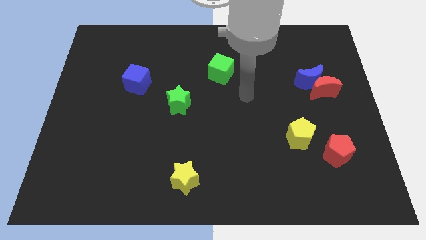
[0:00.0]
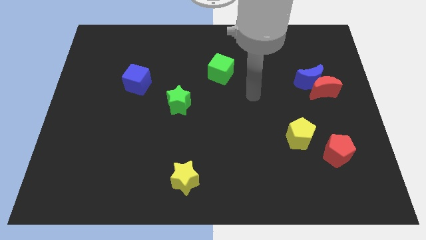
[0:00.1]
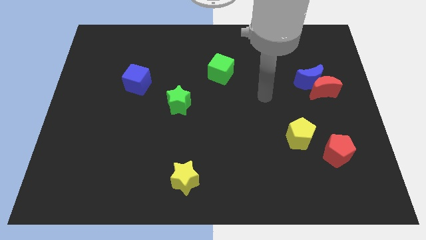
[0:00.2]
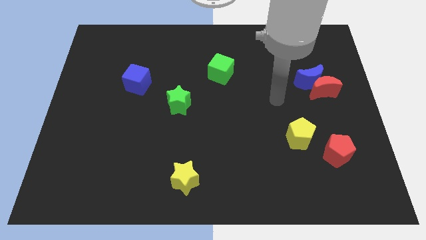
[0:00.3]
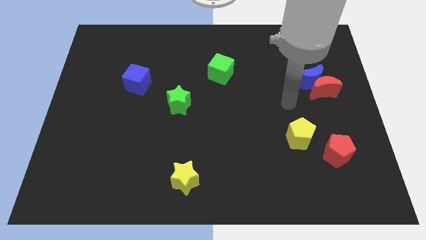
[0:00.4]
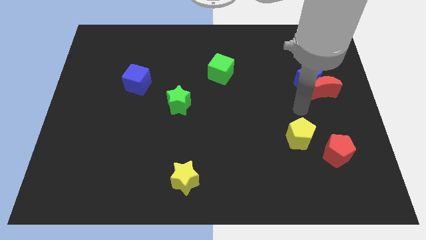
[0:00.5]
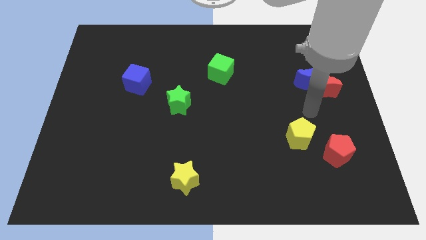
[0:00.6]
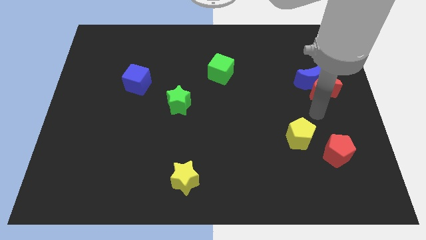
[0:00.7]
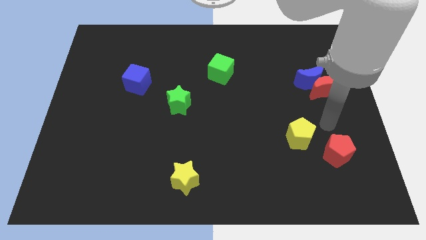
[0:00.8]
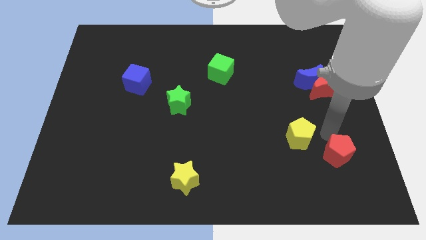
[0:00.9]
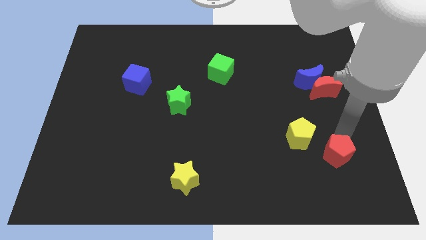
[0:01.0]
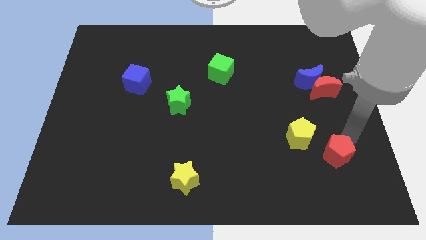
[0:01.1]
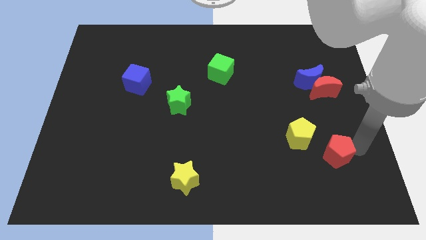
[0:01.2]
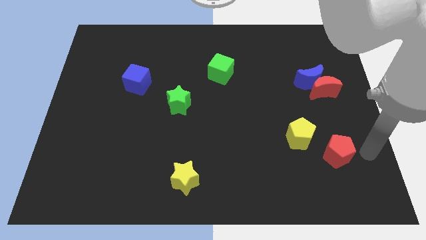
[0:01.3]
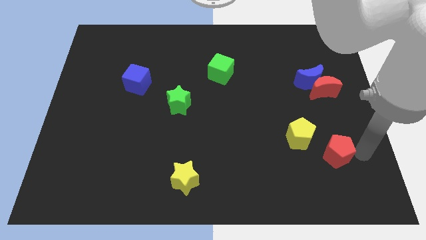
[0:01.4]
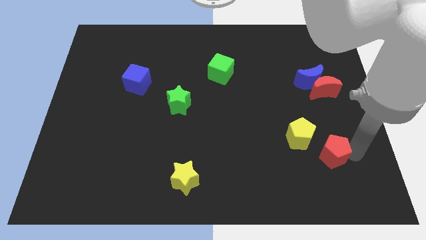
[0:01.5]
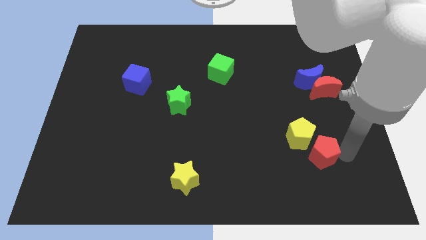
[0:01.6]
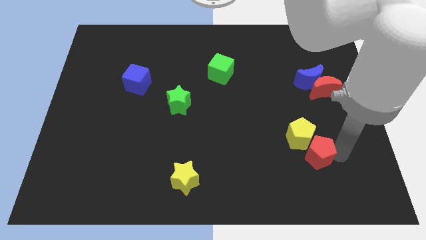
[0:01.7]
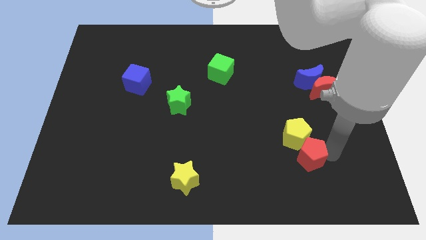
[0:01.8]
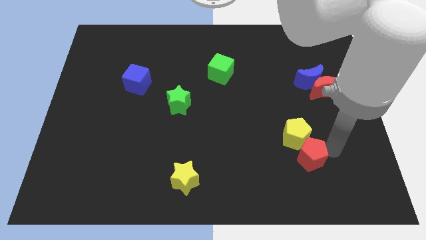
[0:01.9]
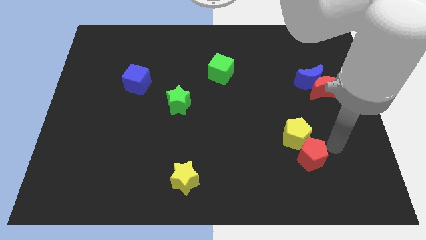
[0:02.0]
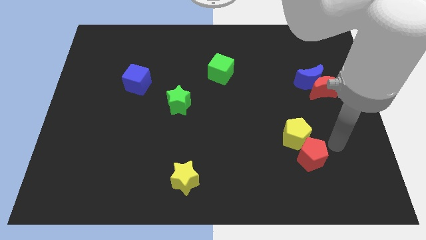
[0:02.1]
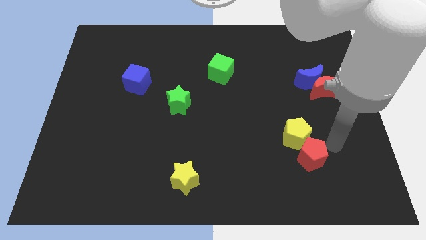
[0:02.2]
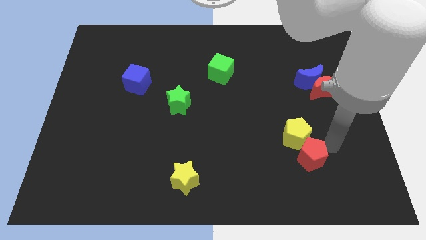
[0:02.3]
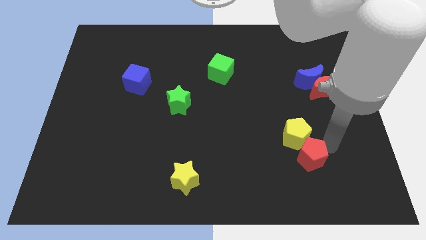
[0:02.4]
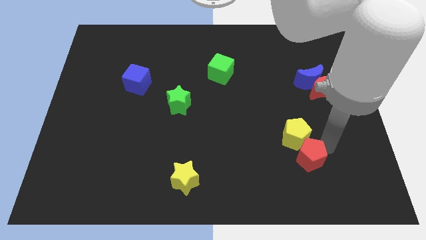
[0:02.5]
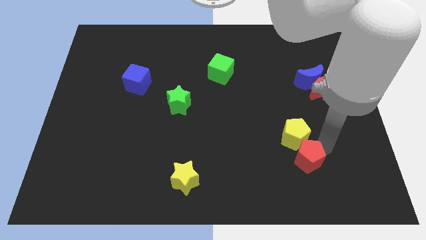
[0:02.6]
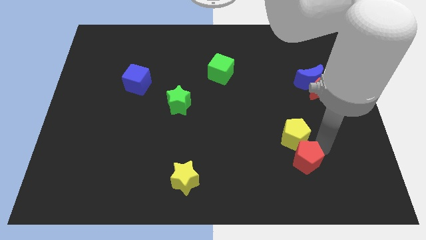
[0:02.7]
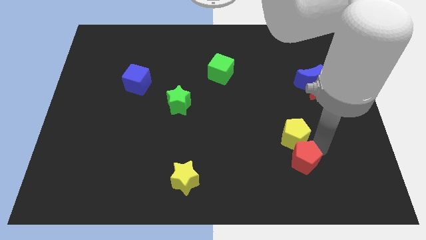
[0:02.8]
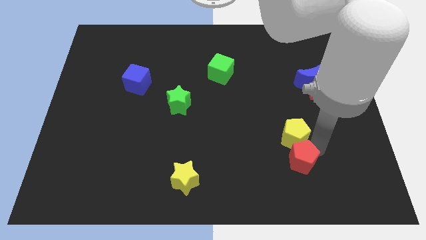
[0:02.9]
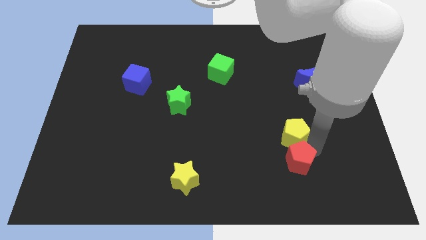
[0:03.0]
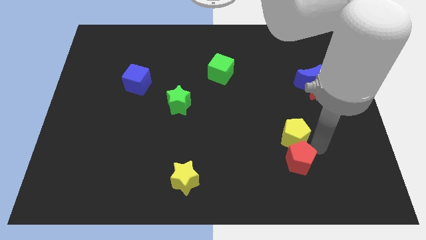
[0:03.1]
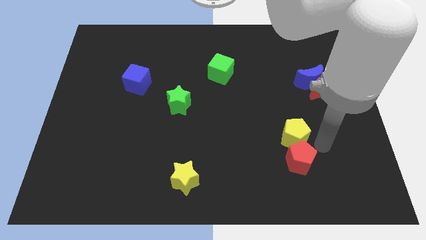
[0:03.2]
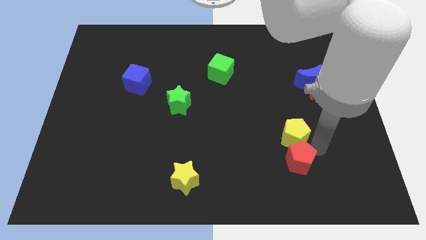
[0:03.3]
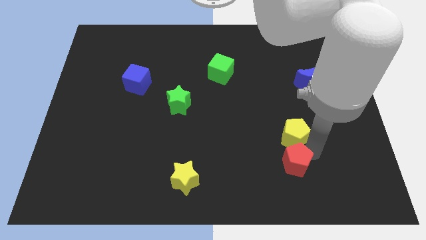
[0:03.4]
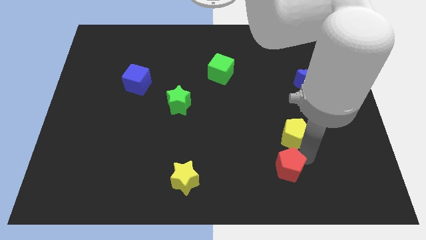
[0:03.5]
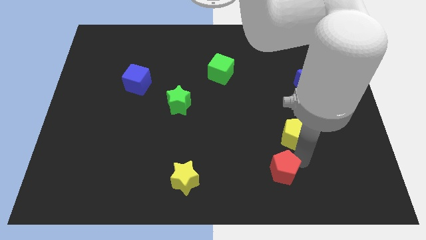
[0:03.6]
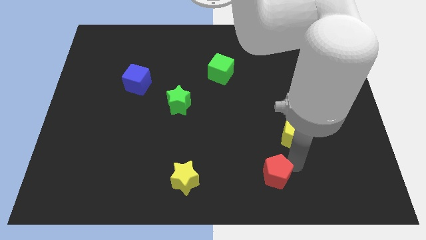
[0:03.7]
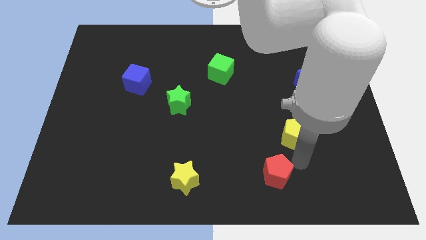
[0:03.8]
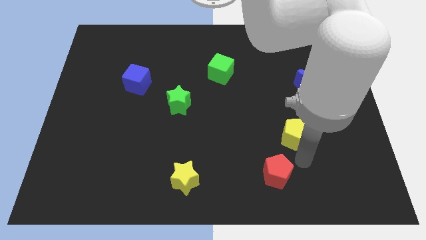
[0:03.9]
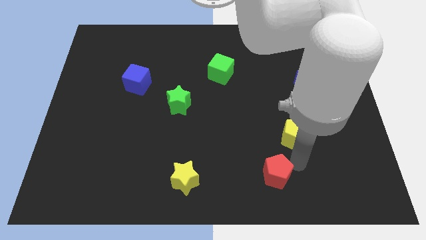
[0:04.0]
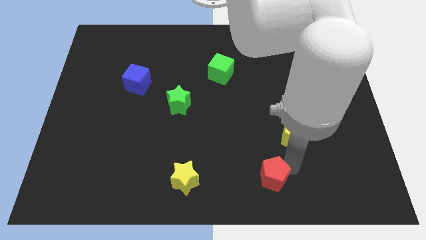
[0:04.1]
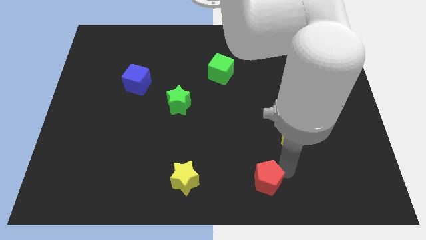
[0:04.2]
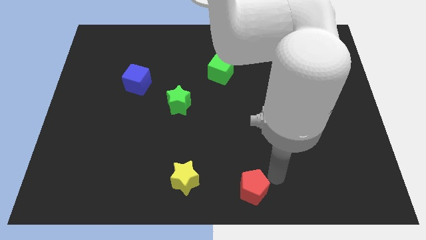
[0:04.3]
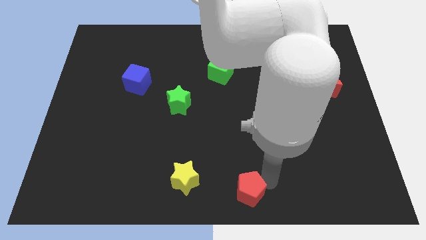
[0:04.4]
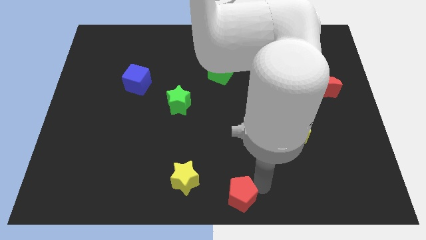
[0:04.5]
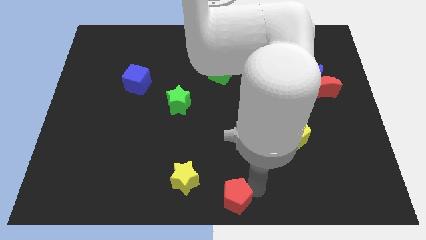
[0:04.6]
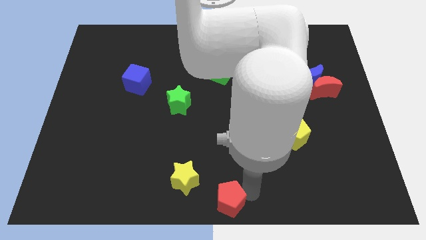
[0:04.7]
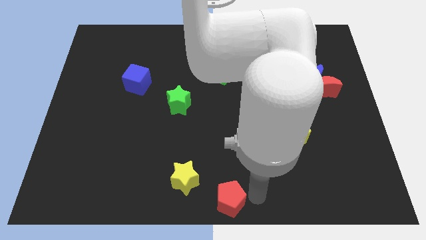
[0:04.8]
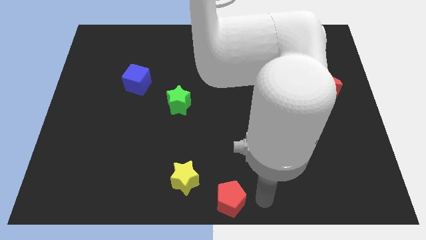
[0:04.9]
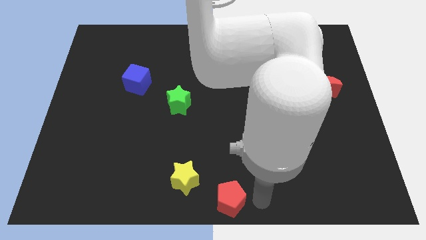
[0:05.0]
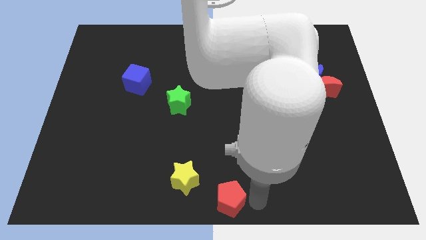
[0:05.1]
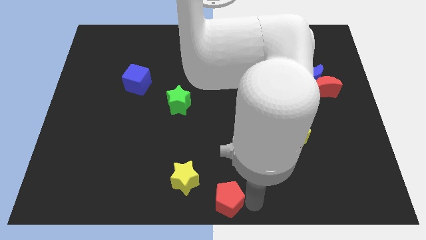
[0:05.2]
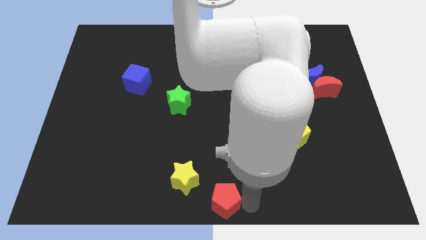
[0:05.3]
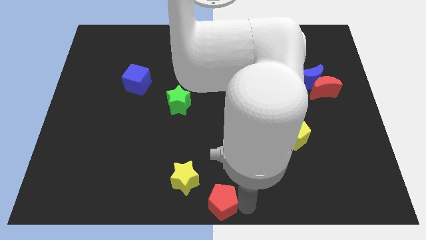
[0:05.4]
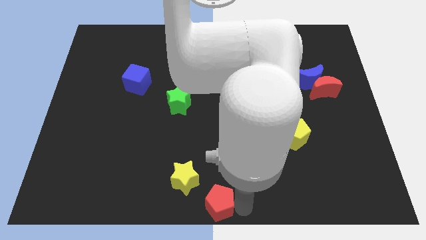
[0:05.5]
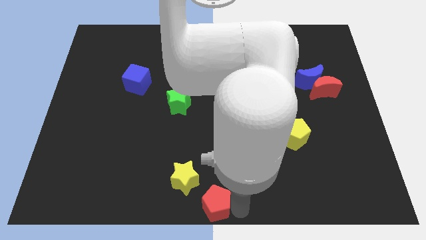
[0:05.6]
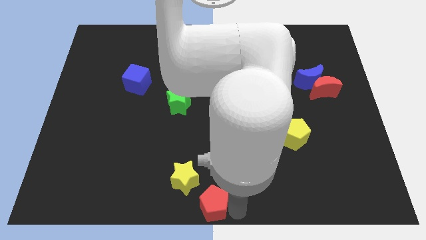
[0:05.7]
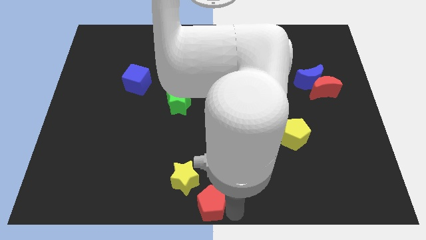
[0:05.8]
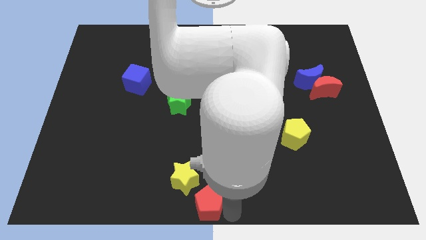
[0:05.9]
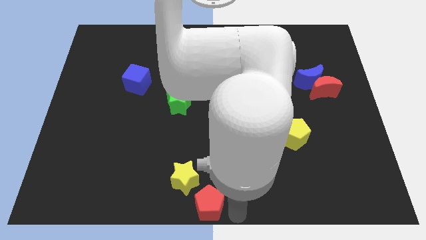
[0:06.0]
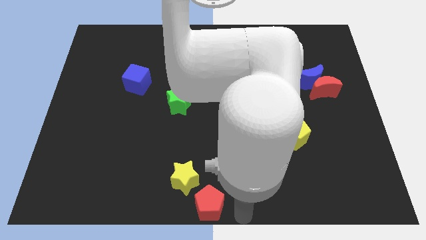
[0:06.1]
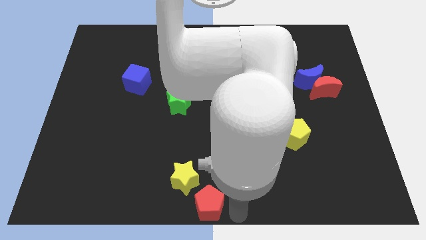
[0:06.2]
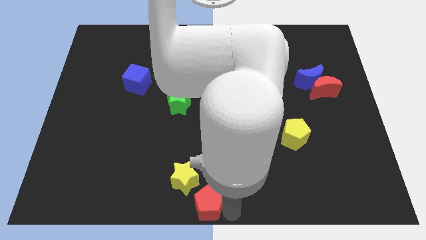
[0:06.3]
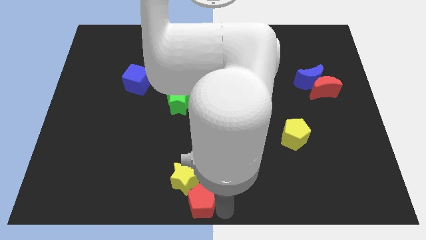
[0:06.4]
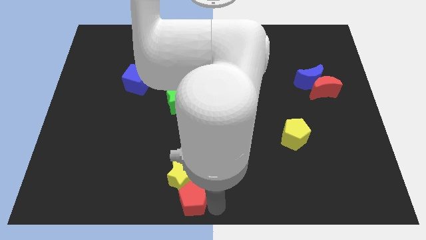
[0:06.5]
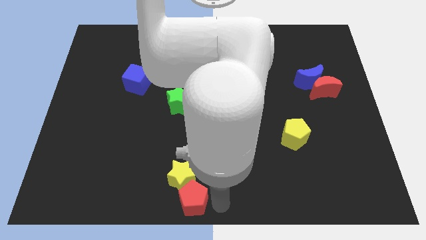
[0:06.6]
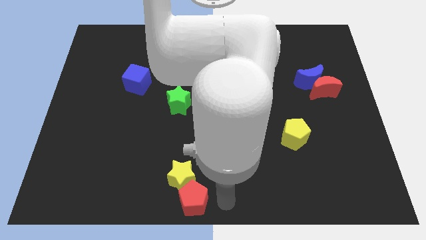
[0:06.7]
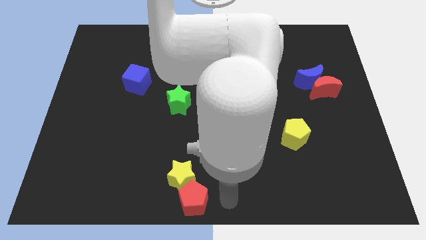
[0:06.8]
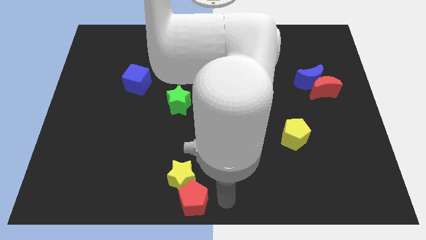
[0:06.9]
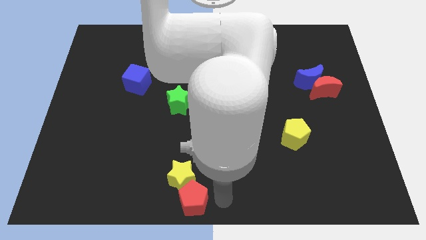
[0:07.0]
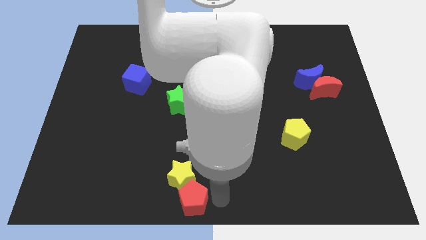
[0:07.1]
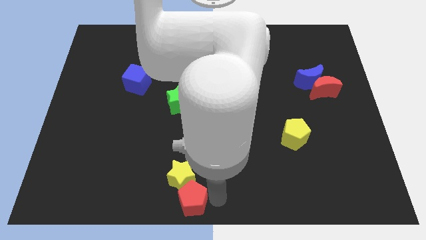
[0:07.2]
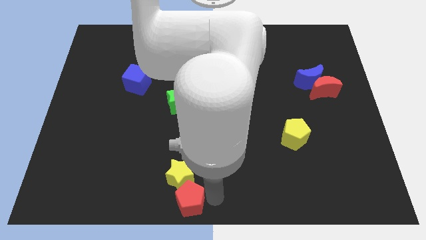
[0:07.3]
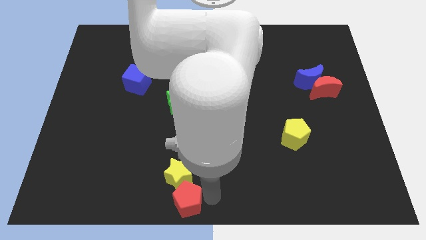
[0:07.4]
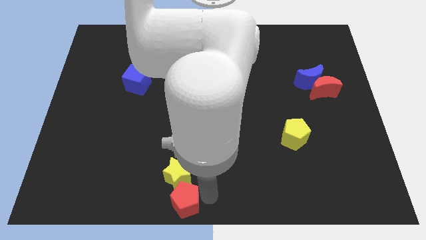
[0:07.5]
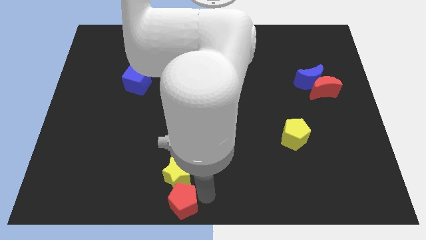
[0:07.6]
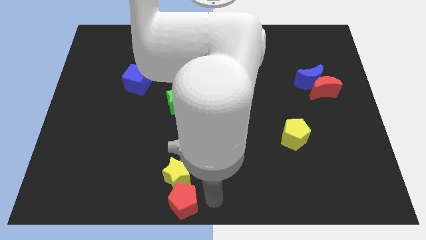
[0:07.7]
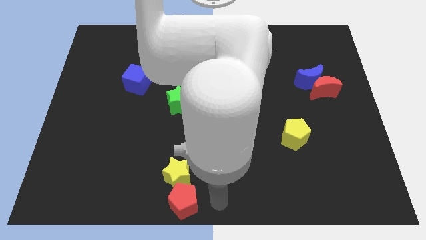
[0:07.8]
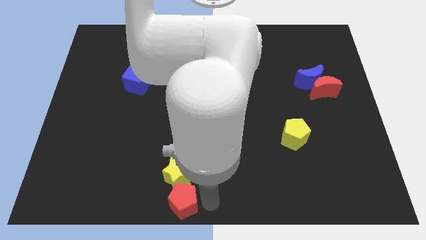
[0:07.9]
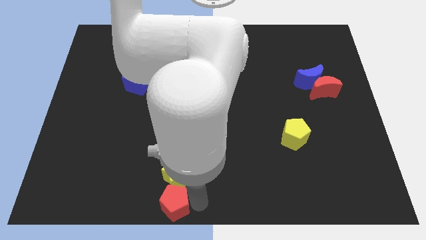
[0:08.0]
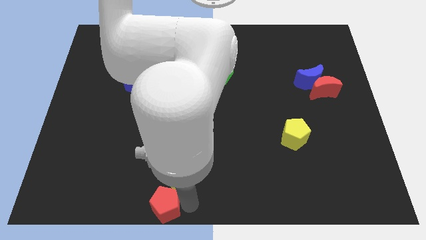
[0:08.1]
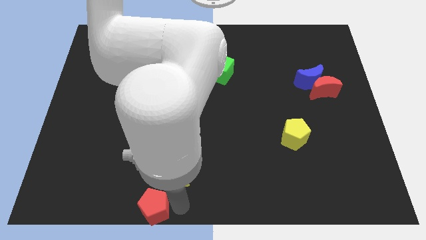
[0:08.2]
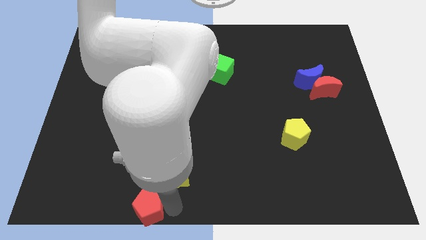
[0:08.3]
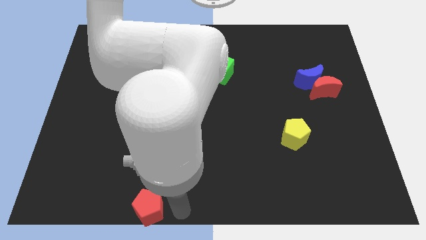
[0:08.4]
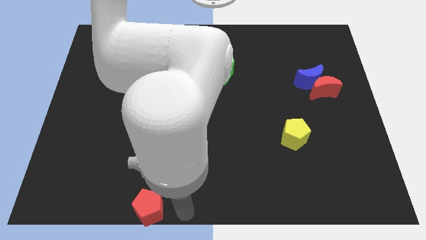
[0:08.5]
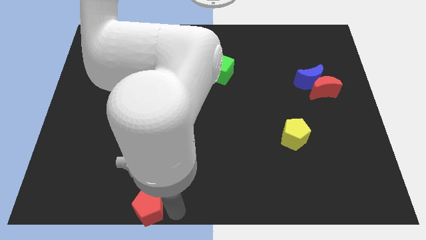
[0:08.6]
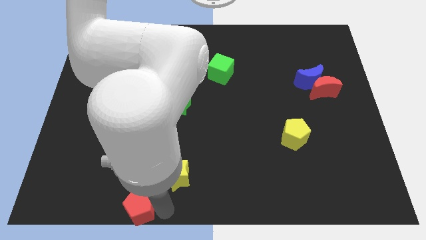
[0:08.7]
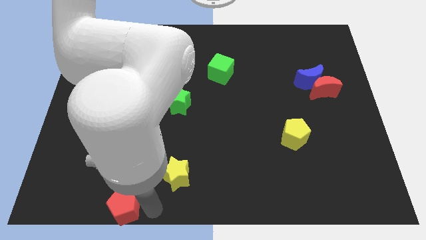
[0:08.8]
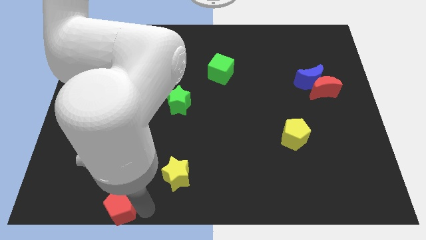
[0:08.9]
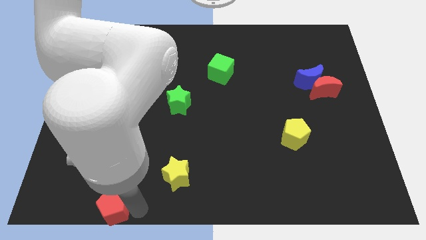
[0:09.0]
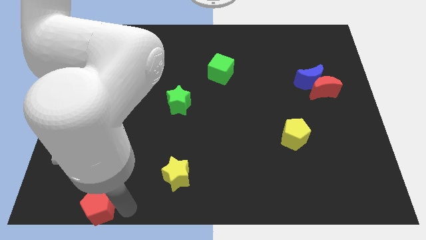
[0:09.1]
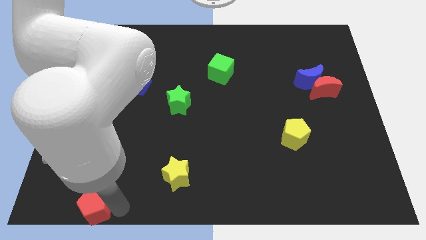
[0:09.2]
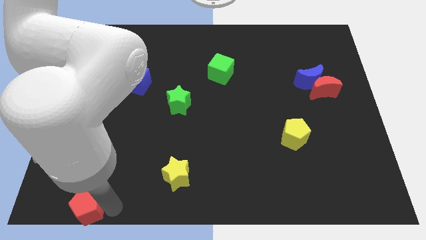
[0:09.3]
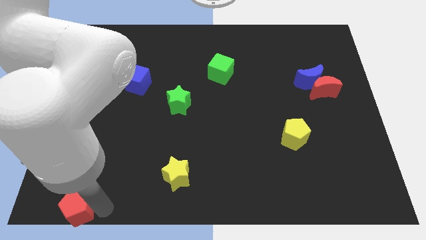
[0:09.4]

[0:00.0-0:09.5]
put the red pentagon to the bottom left
